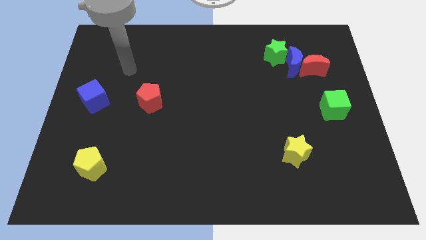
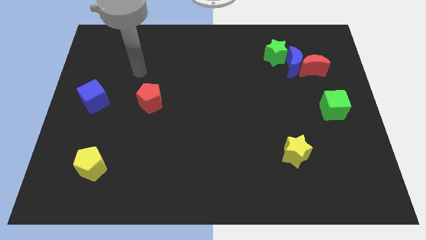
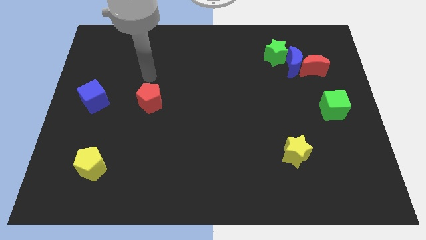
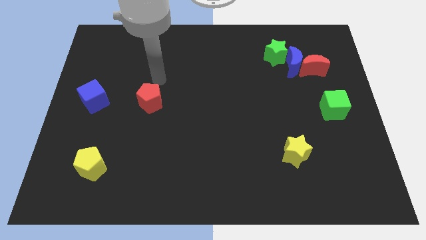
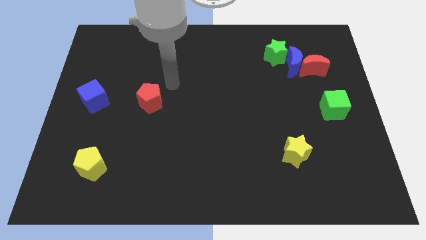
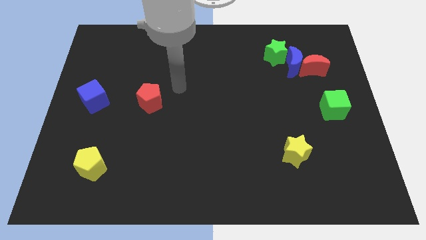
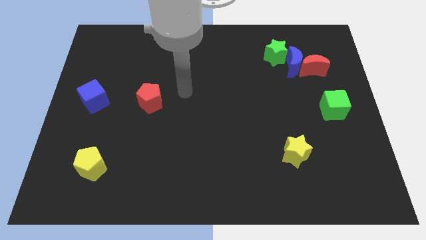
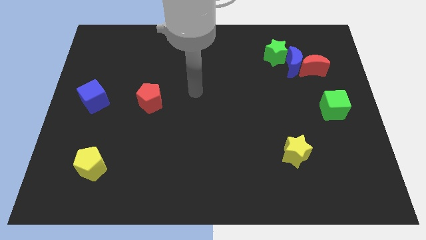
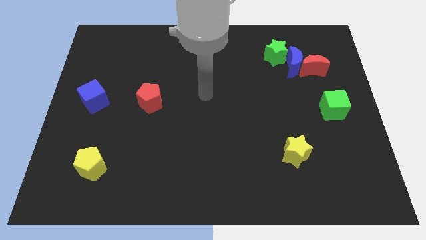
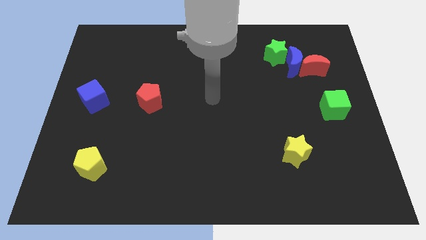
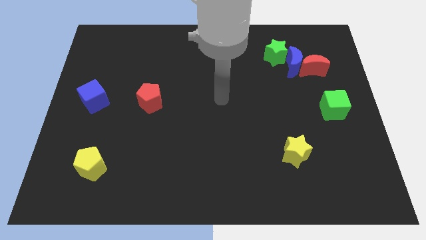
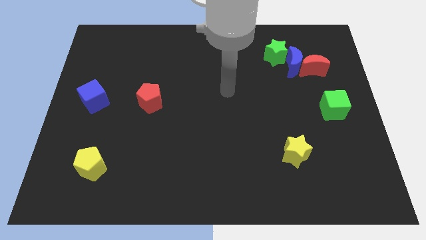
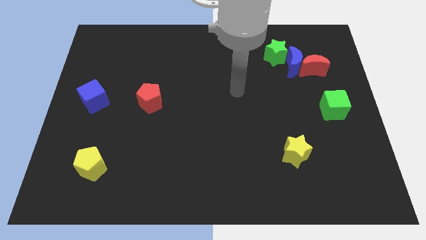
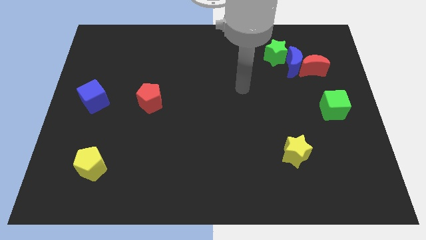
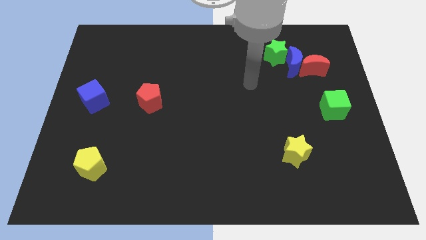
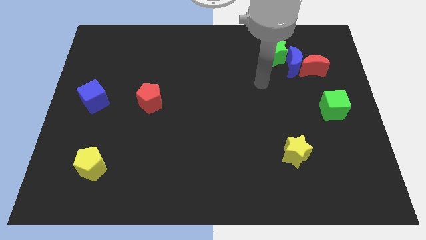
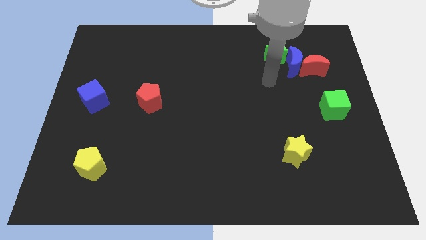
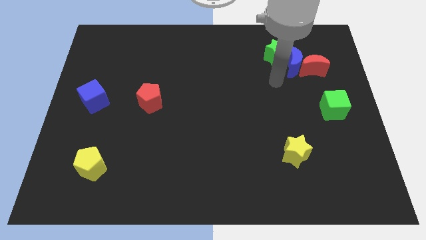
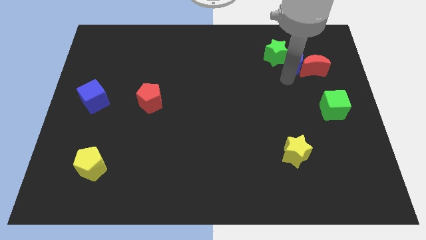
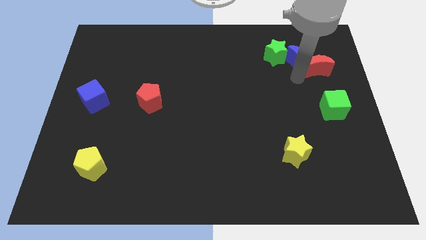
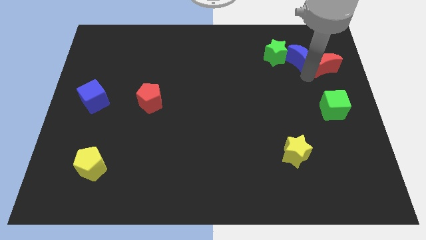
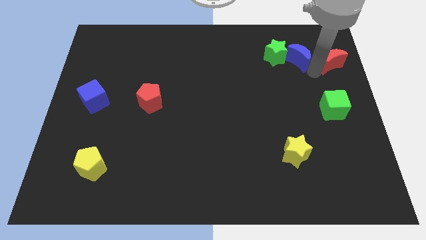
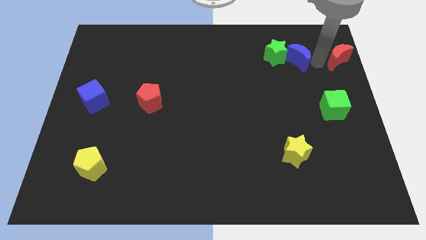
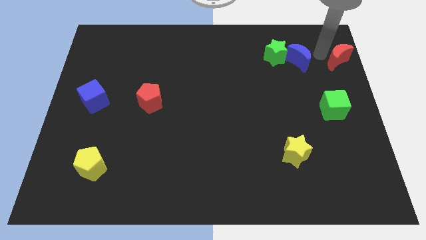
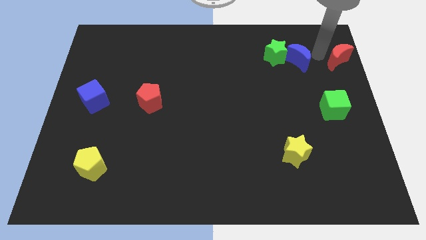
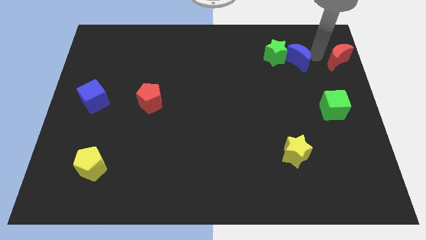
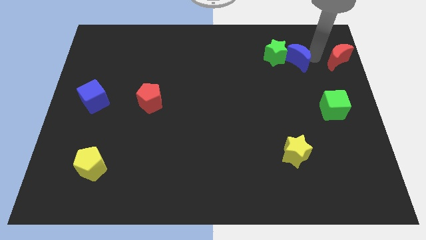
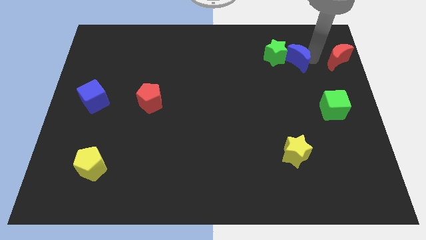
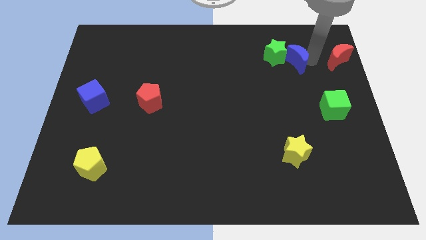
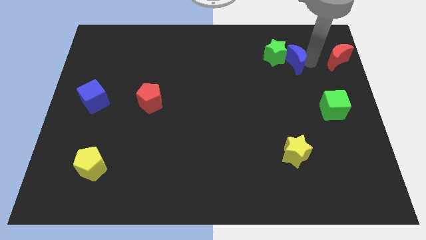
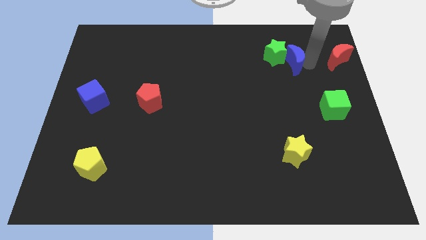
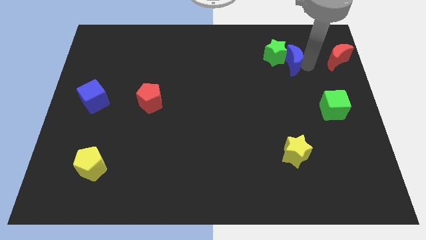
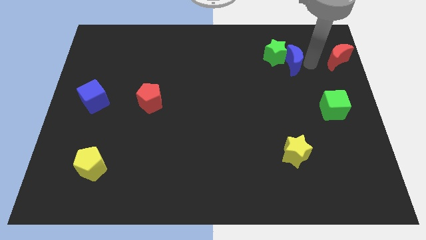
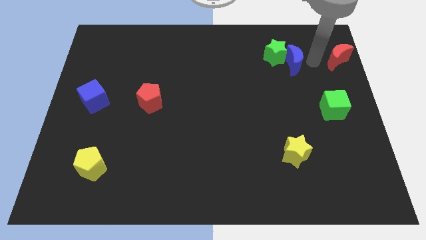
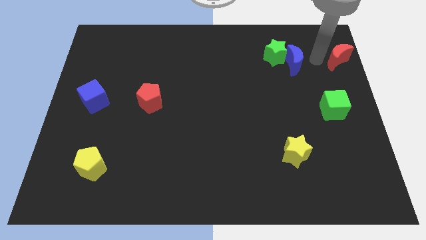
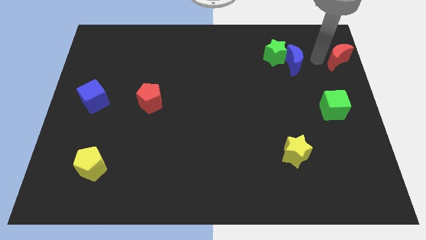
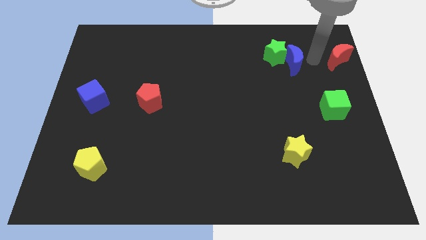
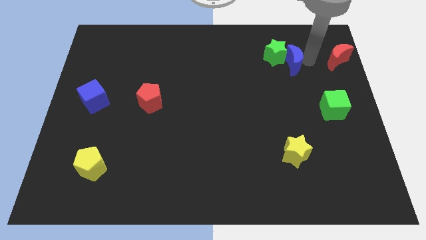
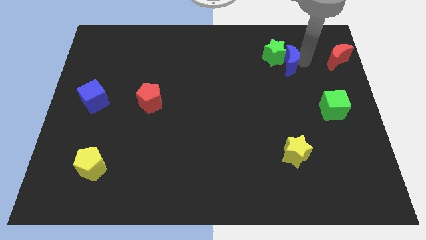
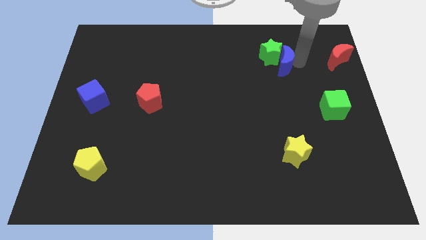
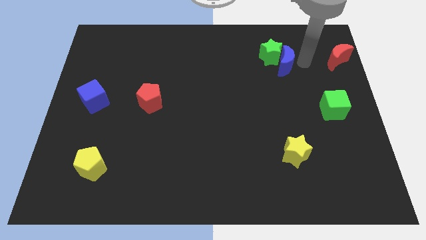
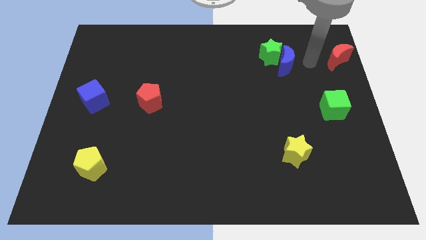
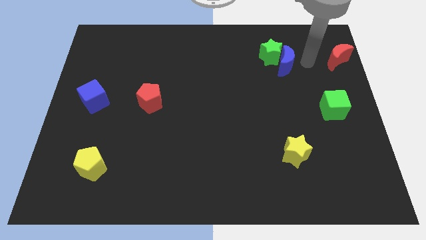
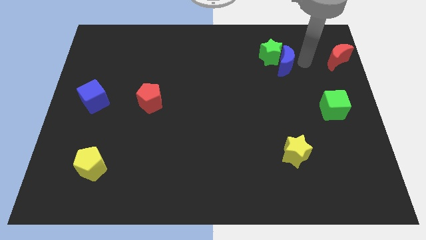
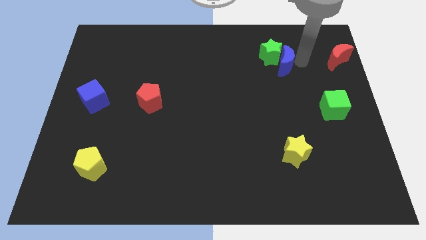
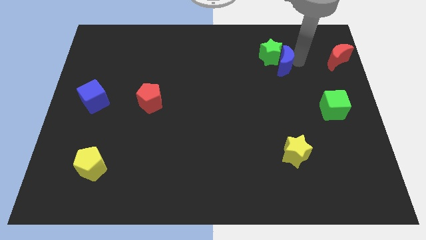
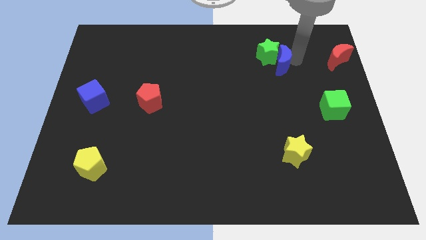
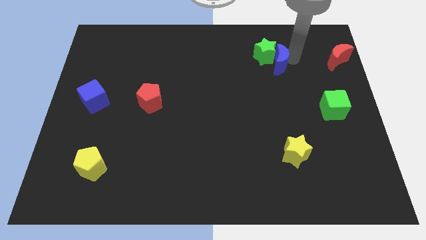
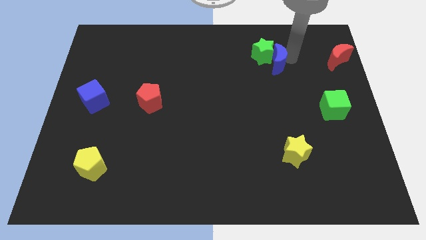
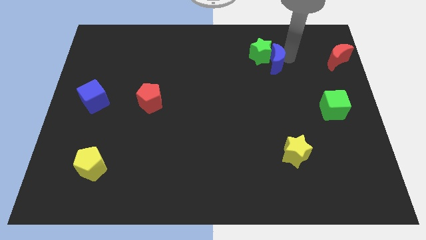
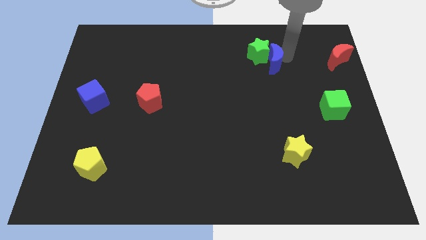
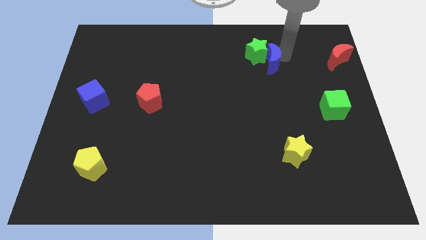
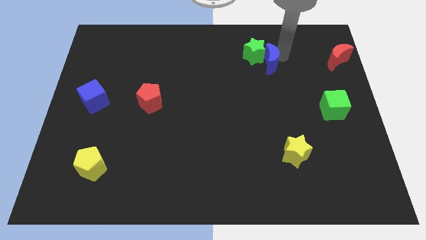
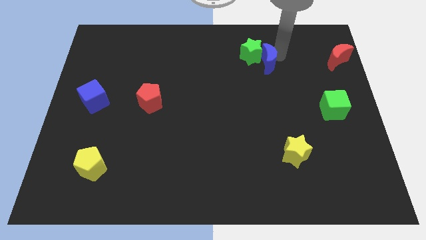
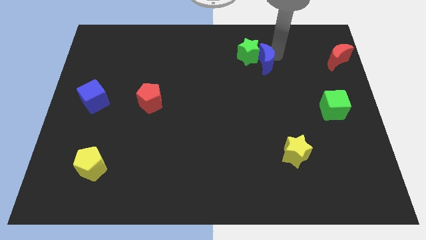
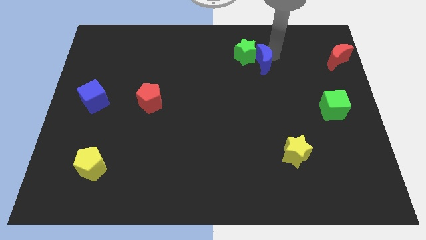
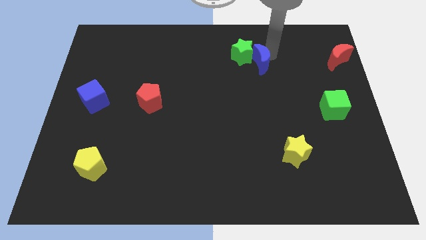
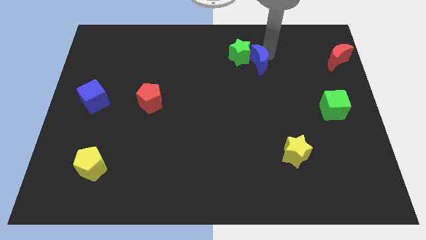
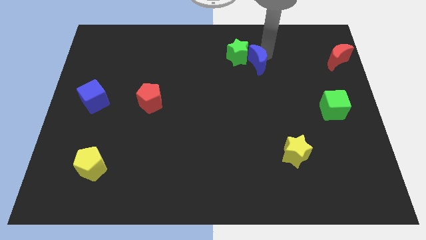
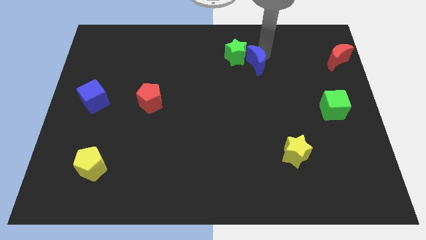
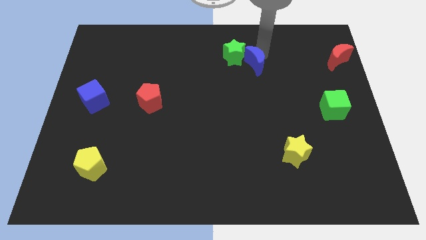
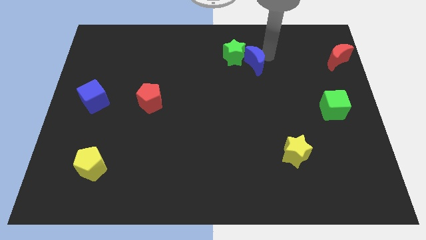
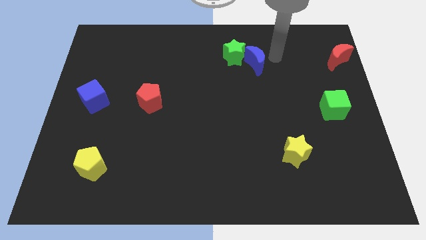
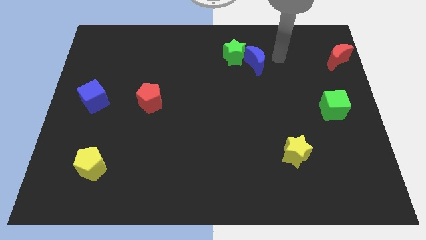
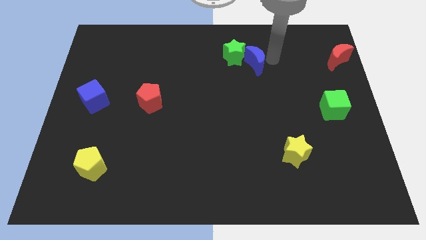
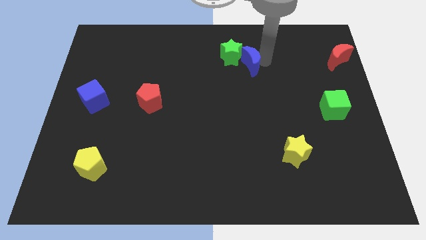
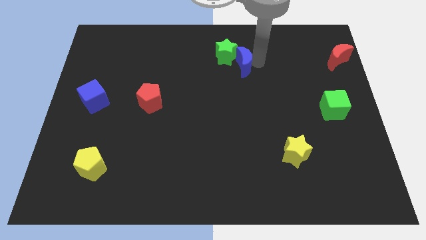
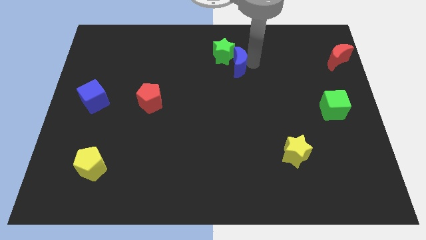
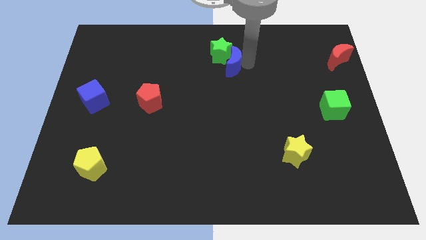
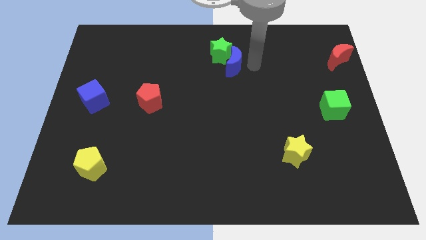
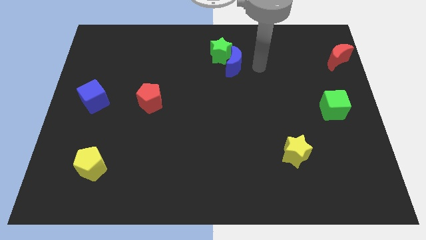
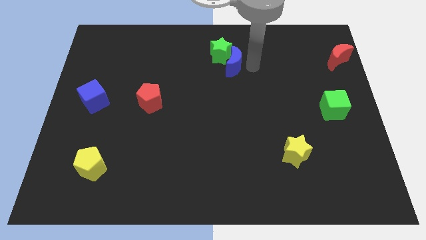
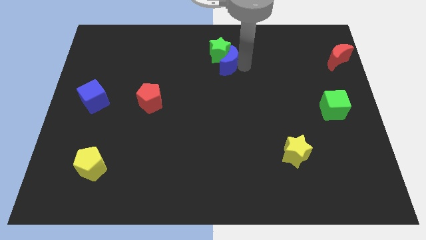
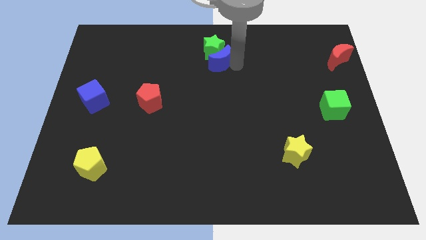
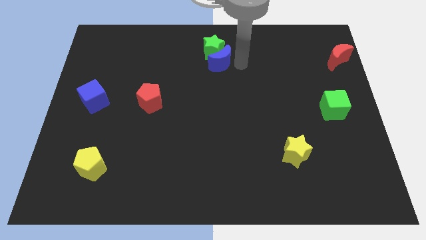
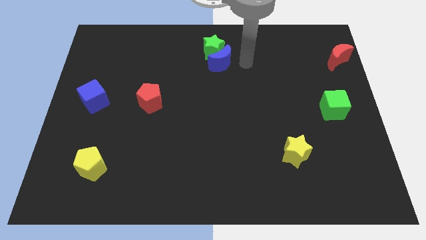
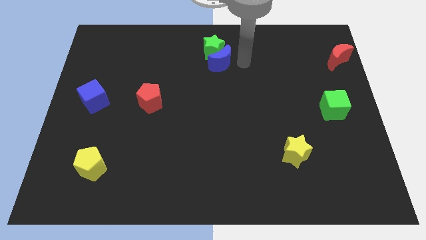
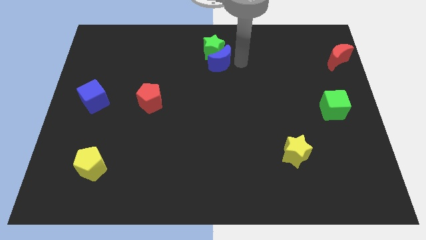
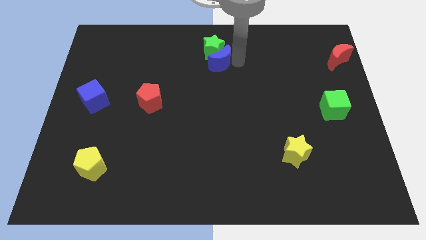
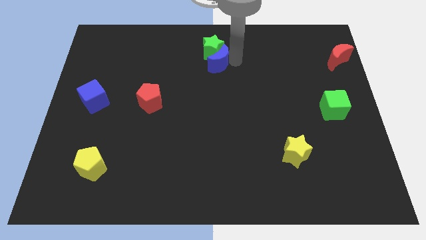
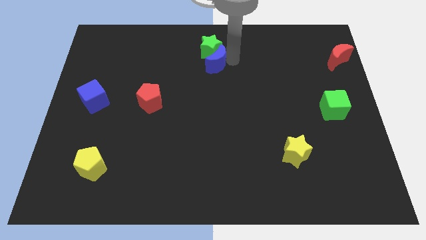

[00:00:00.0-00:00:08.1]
slide the blue moon left
